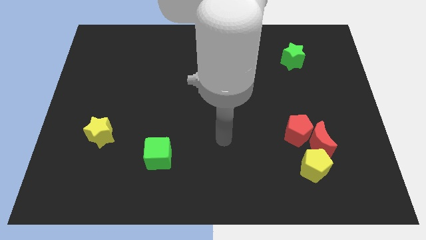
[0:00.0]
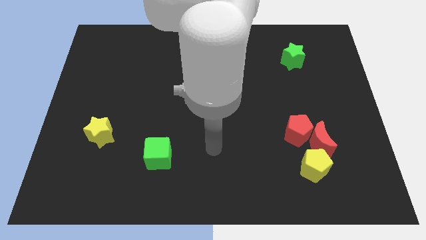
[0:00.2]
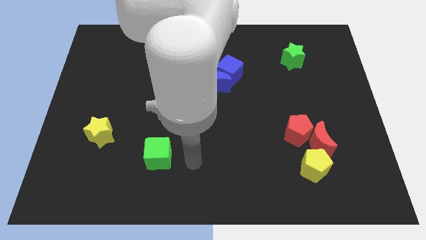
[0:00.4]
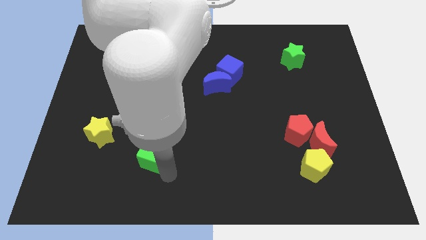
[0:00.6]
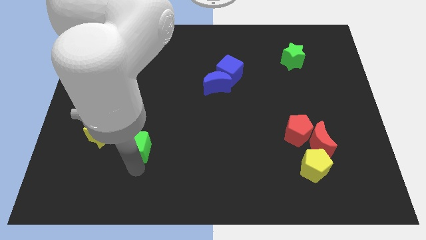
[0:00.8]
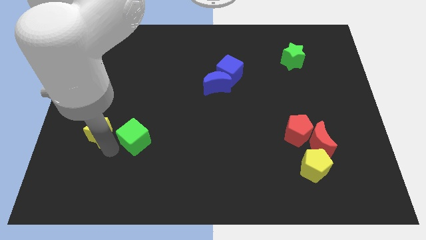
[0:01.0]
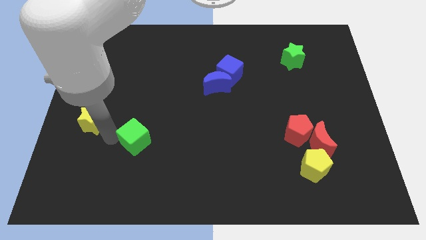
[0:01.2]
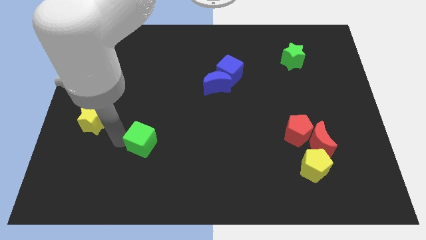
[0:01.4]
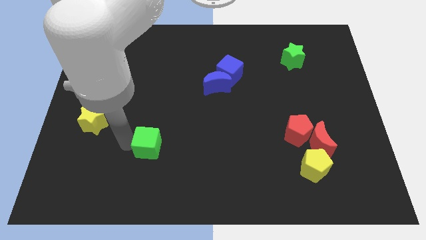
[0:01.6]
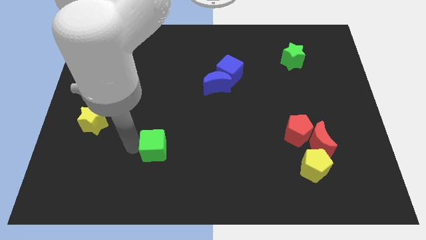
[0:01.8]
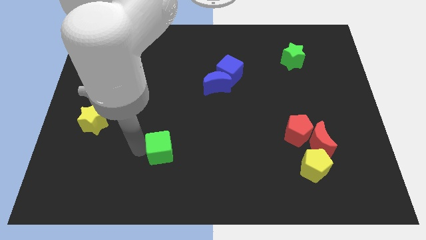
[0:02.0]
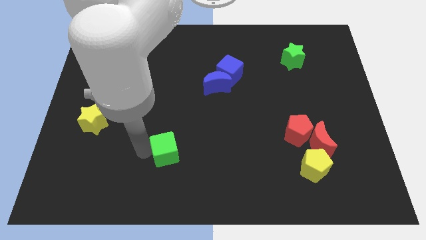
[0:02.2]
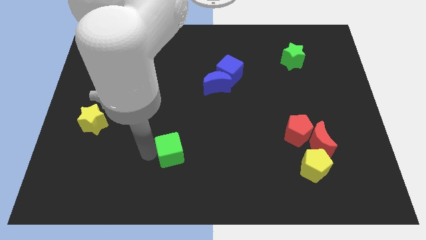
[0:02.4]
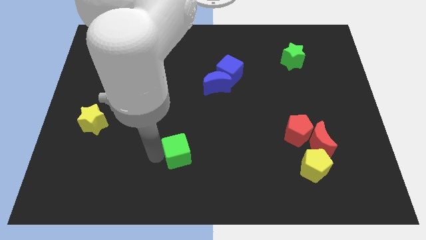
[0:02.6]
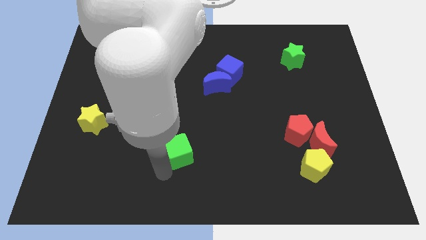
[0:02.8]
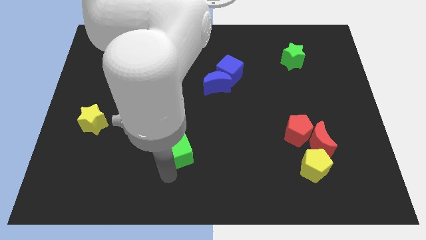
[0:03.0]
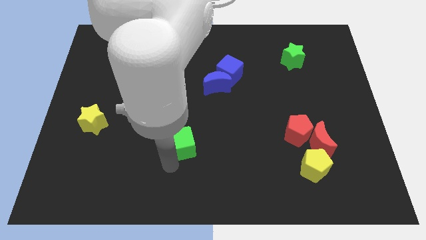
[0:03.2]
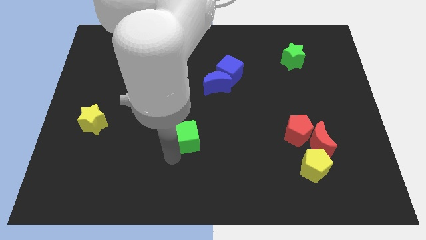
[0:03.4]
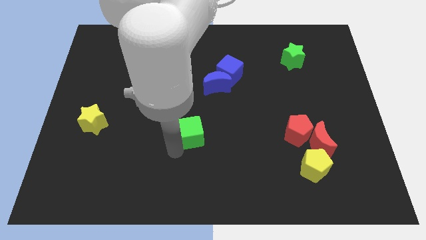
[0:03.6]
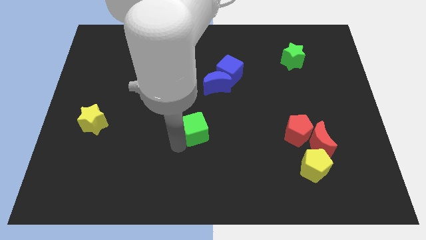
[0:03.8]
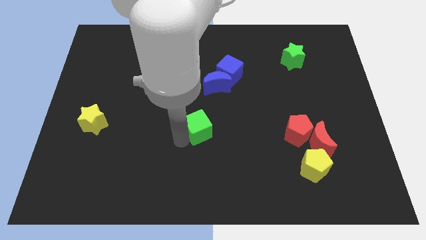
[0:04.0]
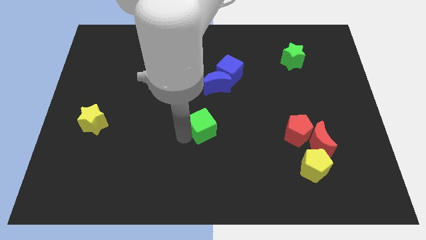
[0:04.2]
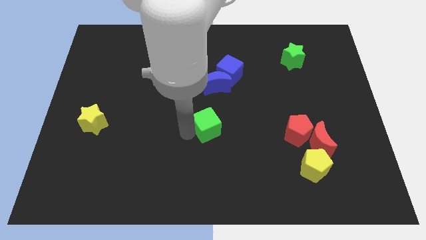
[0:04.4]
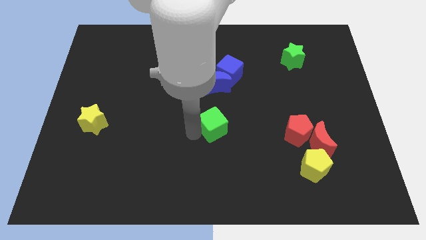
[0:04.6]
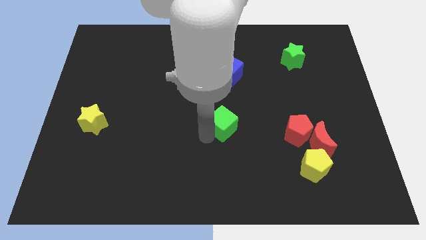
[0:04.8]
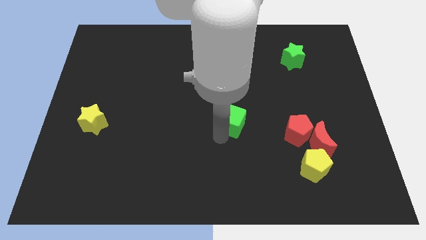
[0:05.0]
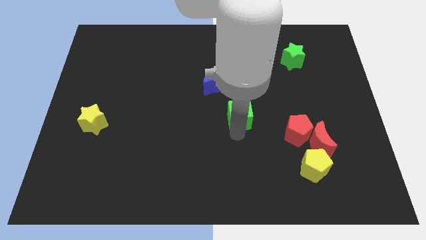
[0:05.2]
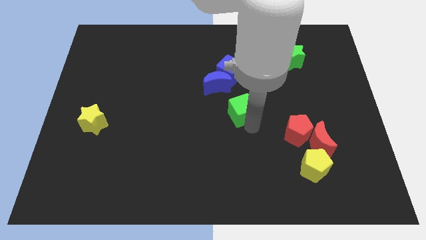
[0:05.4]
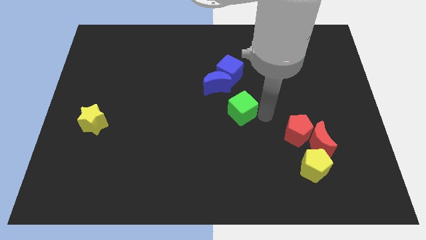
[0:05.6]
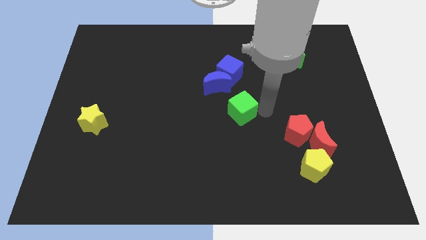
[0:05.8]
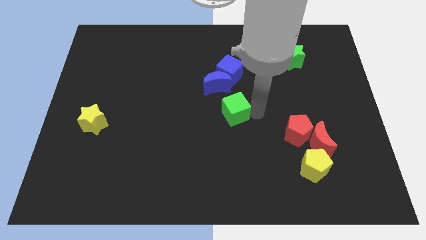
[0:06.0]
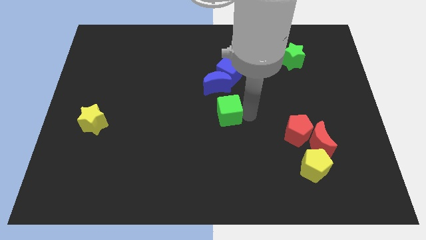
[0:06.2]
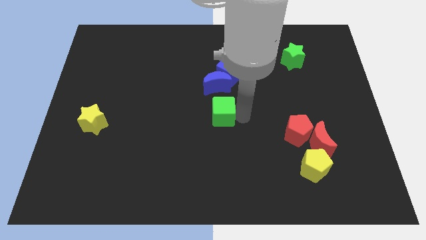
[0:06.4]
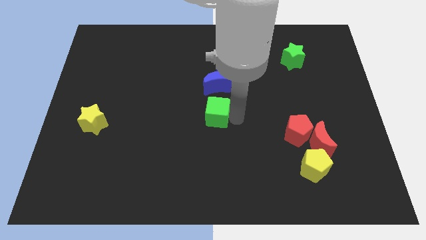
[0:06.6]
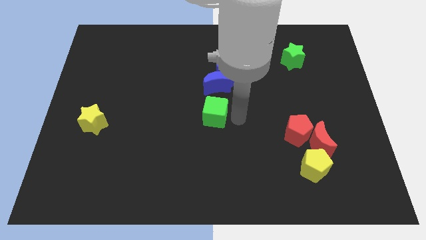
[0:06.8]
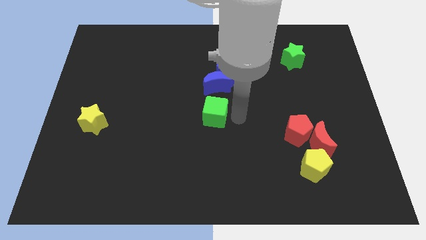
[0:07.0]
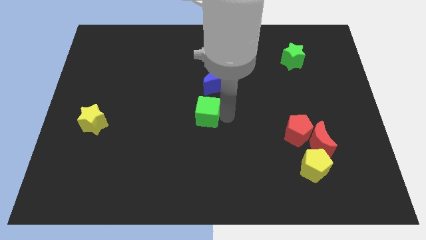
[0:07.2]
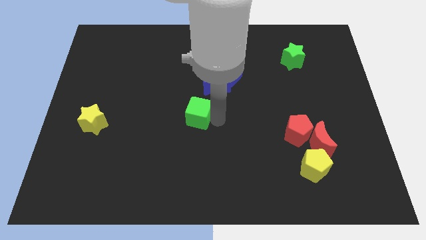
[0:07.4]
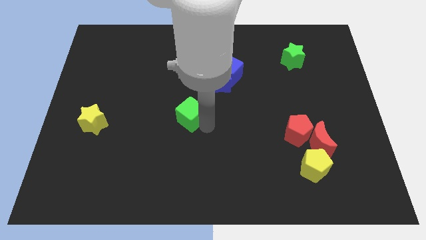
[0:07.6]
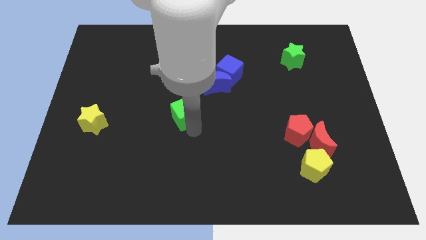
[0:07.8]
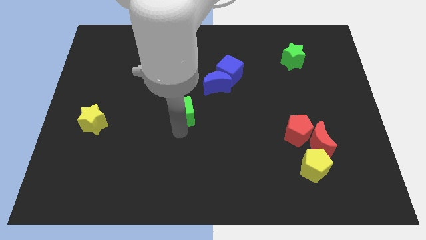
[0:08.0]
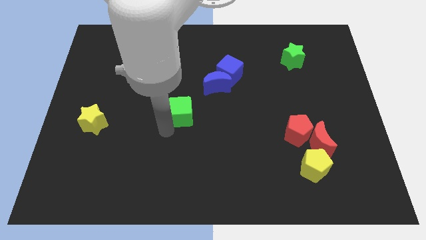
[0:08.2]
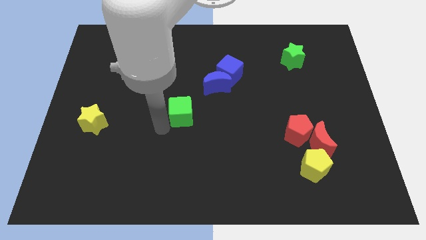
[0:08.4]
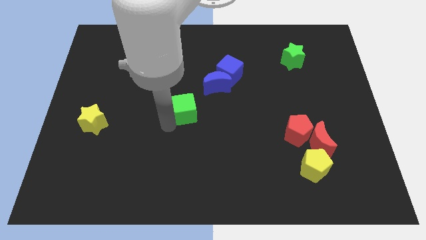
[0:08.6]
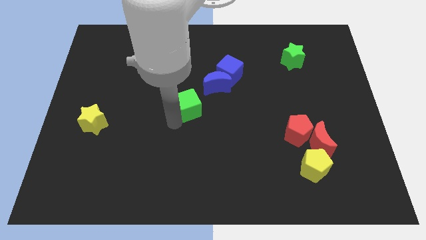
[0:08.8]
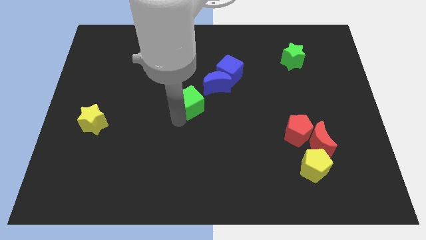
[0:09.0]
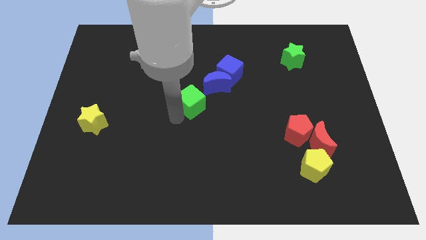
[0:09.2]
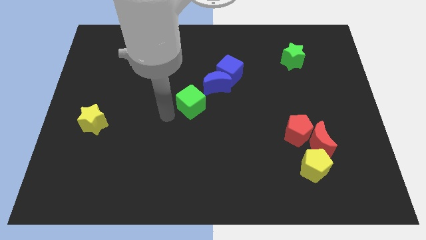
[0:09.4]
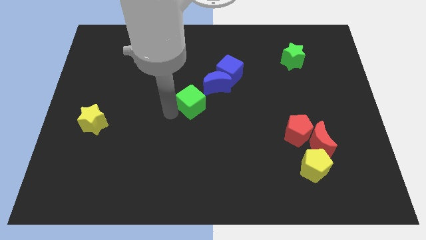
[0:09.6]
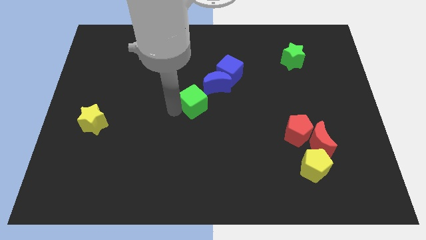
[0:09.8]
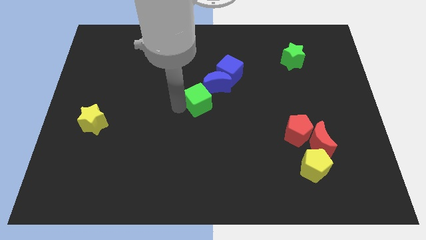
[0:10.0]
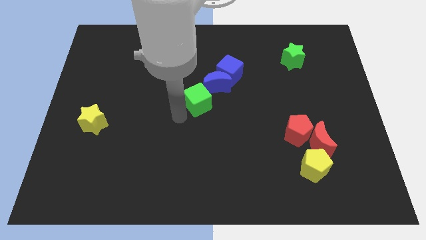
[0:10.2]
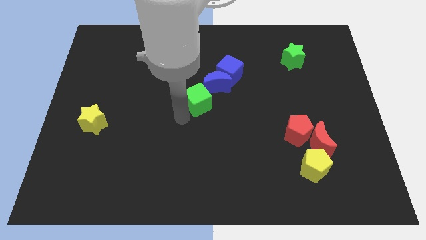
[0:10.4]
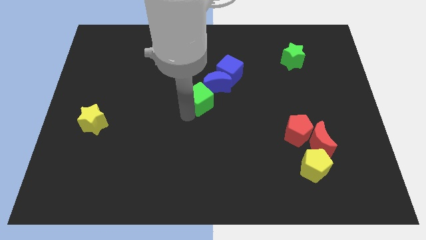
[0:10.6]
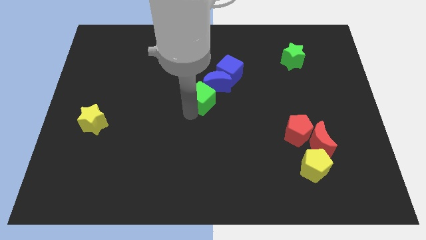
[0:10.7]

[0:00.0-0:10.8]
slide the green cube close to the blue moon

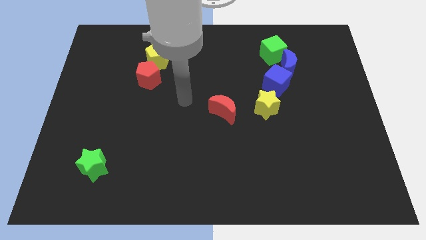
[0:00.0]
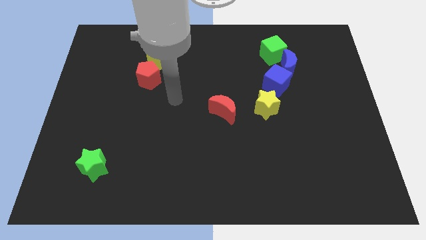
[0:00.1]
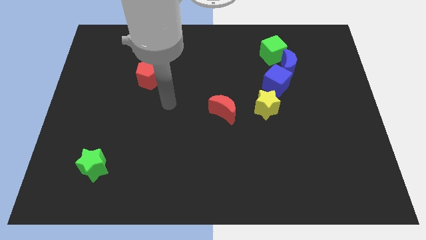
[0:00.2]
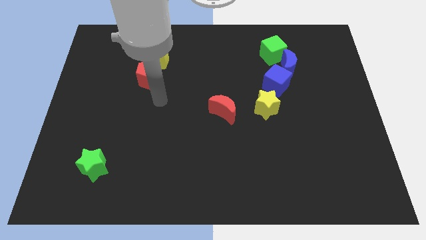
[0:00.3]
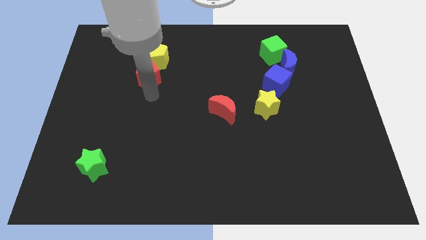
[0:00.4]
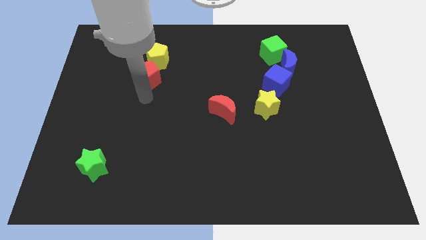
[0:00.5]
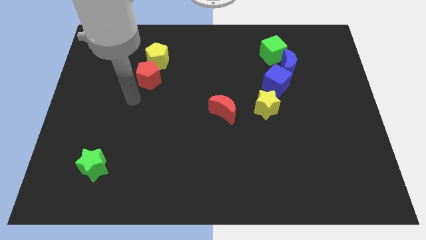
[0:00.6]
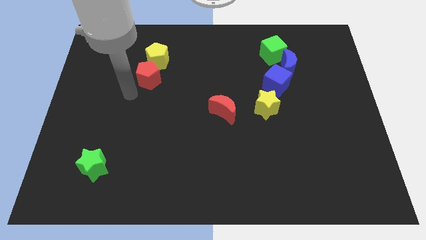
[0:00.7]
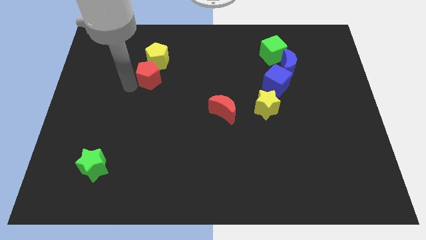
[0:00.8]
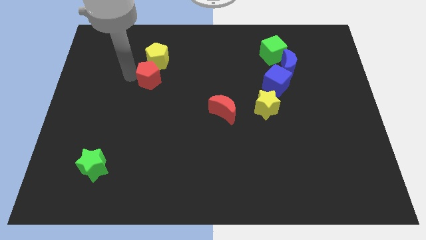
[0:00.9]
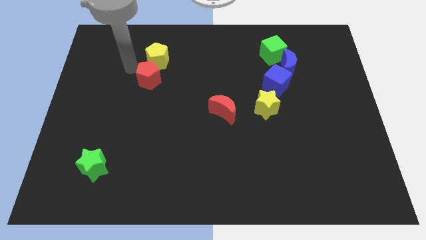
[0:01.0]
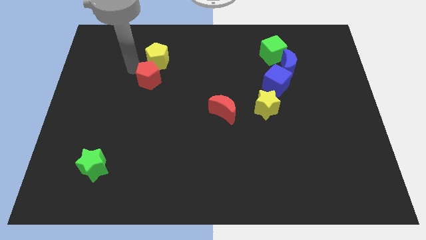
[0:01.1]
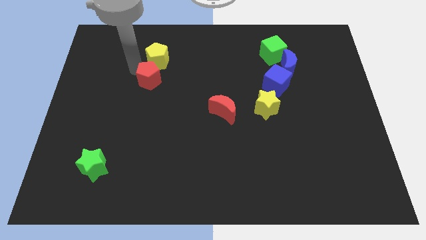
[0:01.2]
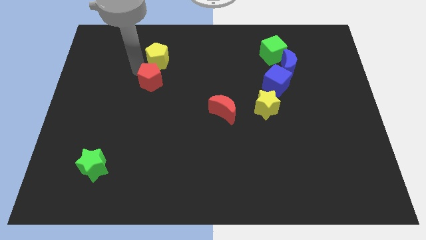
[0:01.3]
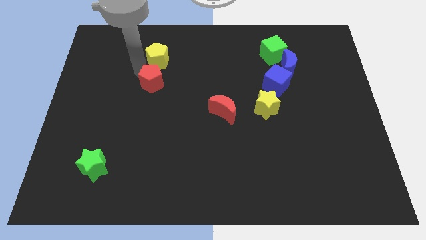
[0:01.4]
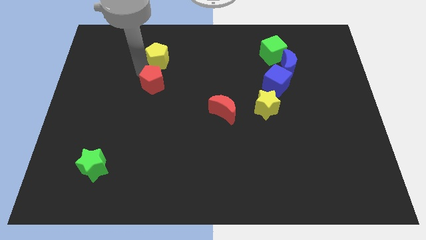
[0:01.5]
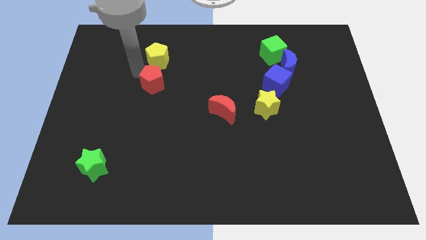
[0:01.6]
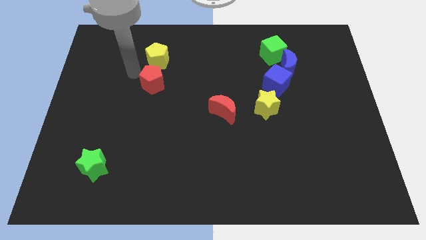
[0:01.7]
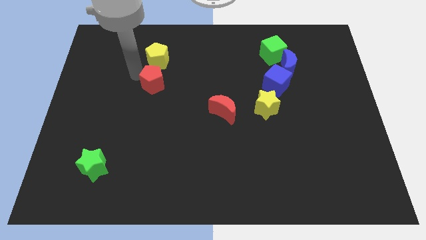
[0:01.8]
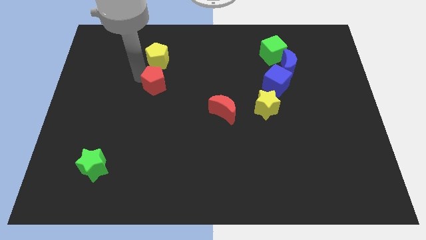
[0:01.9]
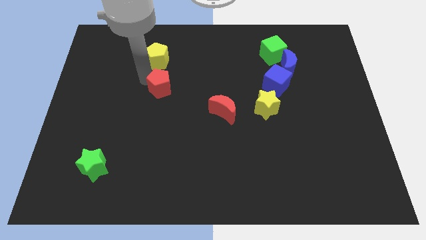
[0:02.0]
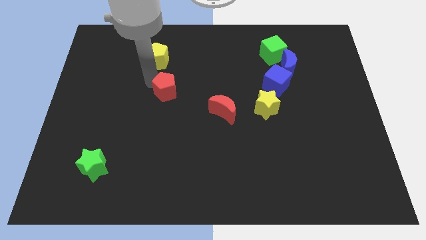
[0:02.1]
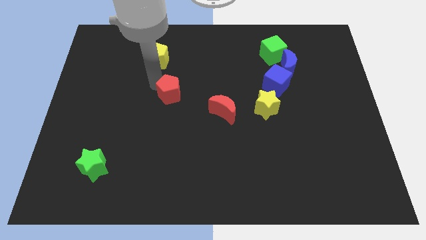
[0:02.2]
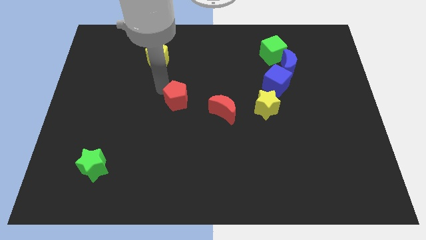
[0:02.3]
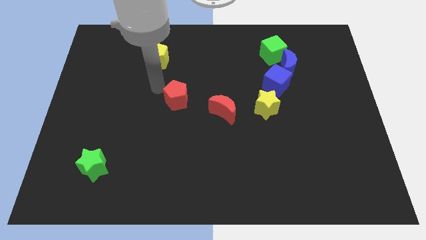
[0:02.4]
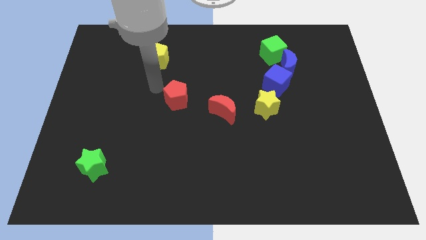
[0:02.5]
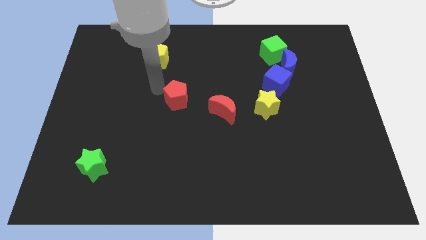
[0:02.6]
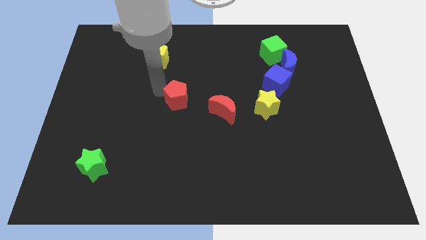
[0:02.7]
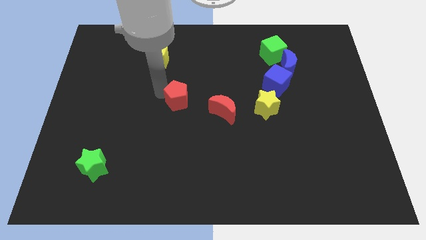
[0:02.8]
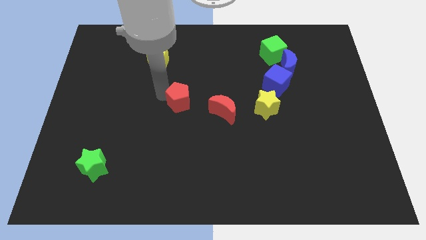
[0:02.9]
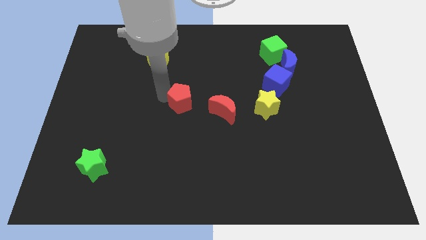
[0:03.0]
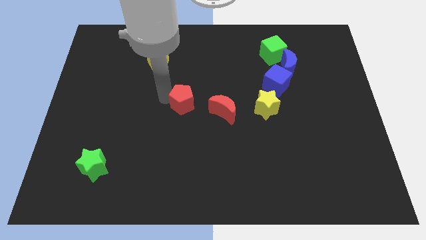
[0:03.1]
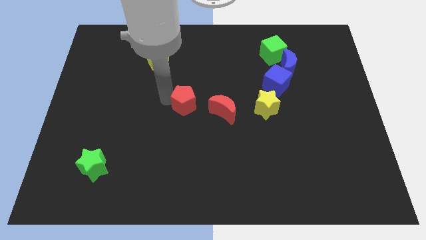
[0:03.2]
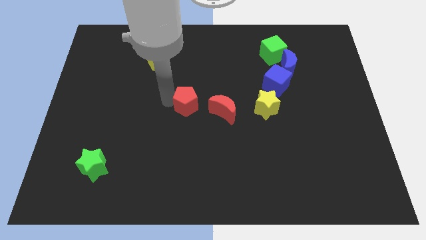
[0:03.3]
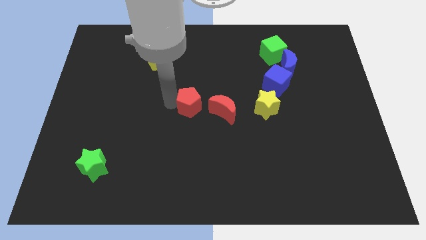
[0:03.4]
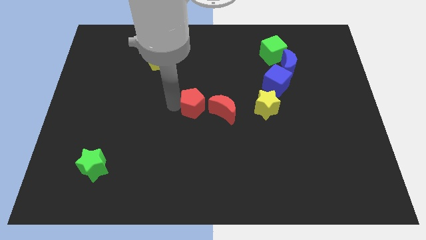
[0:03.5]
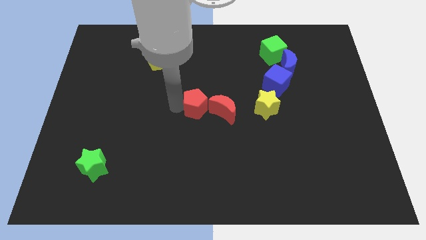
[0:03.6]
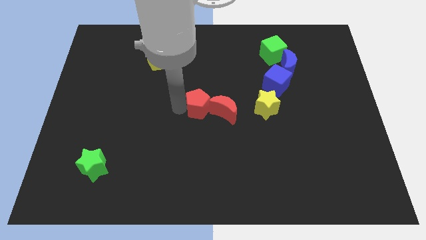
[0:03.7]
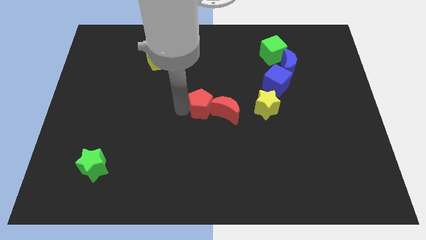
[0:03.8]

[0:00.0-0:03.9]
put the red pentagon to the red moon
